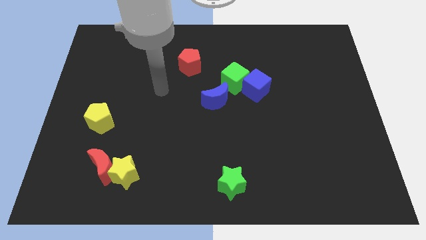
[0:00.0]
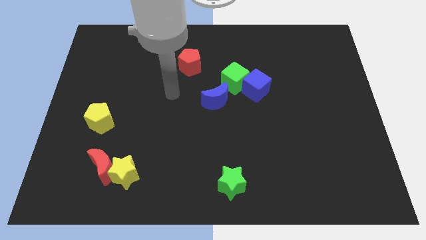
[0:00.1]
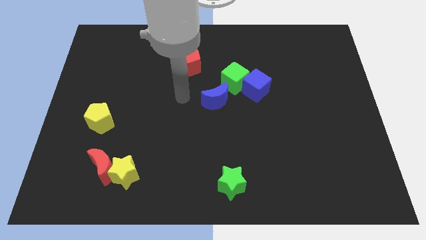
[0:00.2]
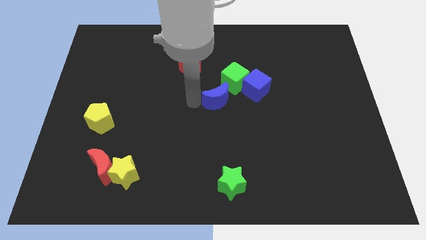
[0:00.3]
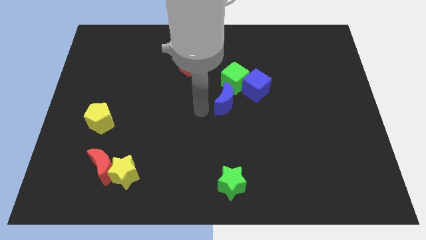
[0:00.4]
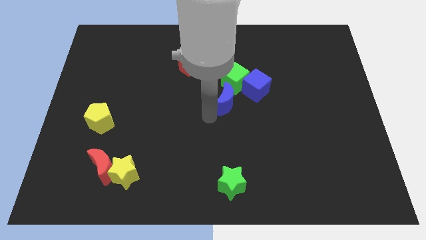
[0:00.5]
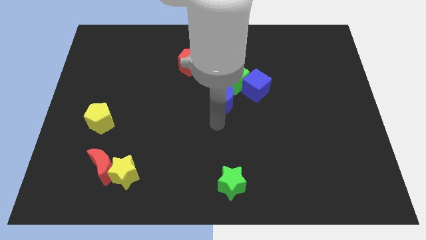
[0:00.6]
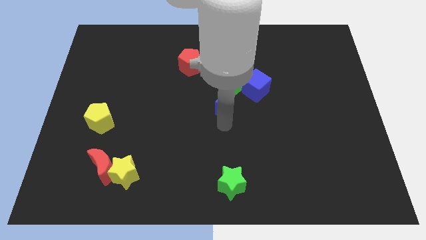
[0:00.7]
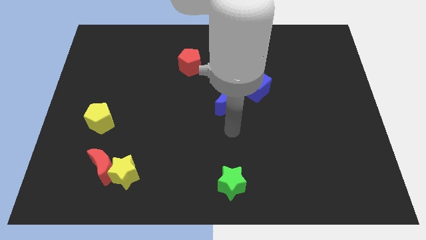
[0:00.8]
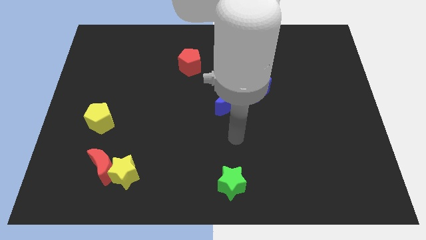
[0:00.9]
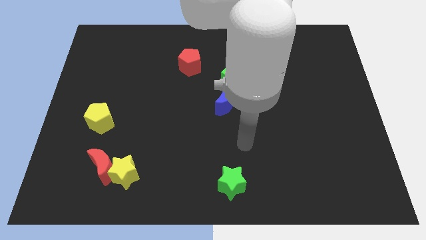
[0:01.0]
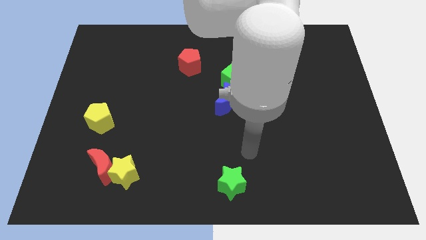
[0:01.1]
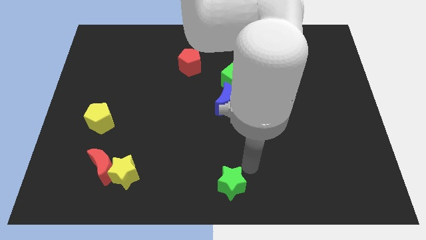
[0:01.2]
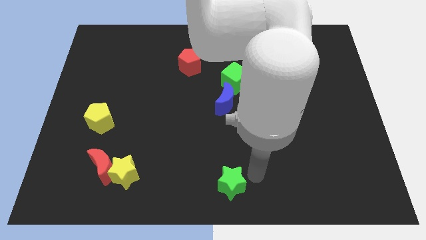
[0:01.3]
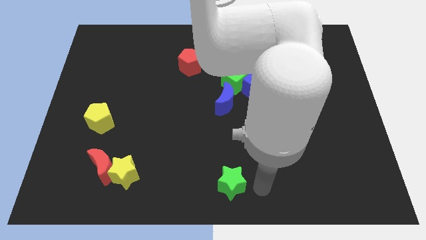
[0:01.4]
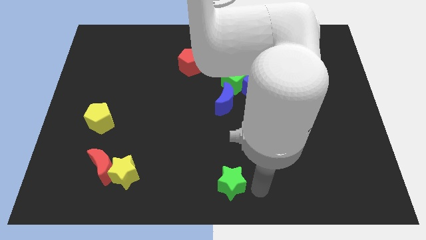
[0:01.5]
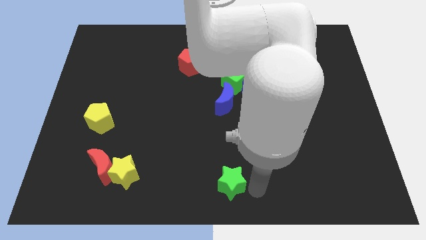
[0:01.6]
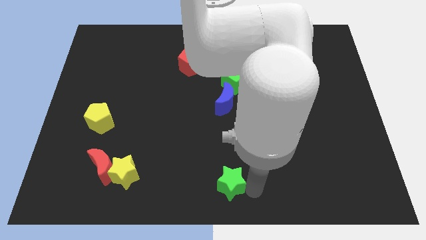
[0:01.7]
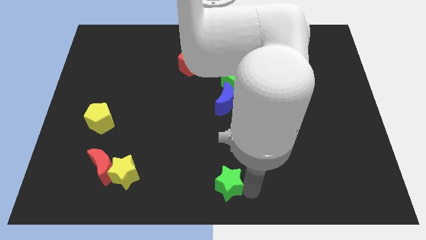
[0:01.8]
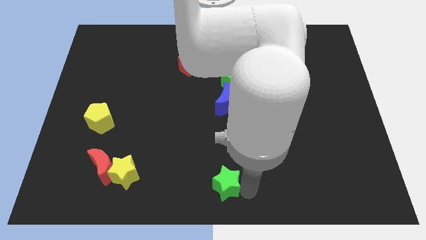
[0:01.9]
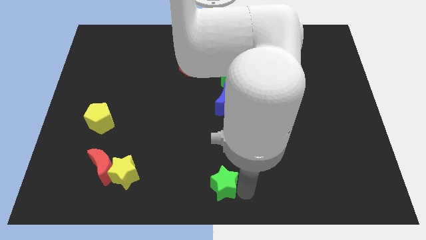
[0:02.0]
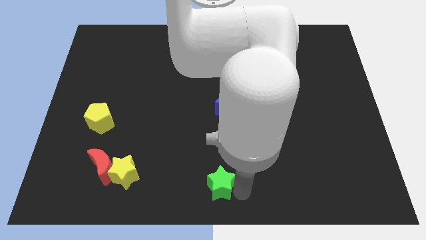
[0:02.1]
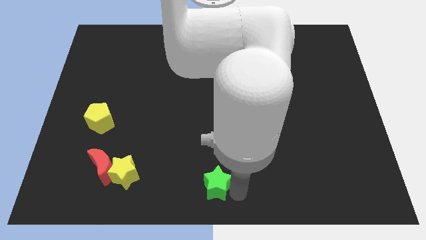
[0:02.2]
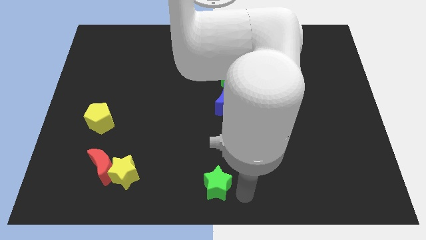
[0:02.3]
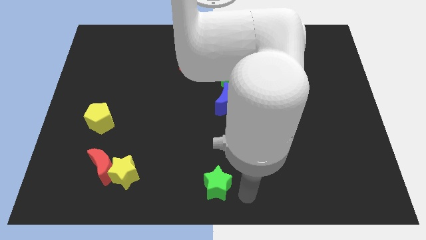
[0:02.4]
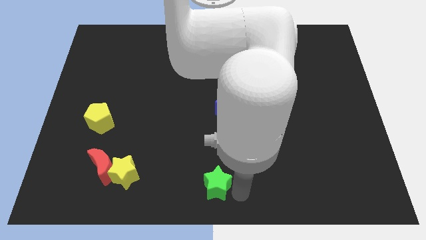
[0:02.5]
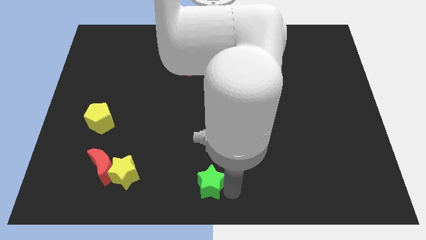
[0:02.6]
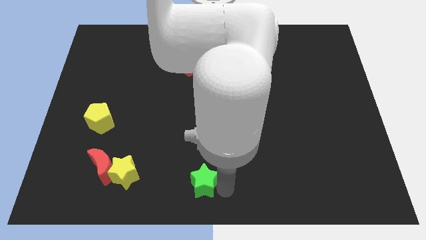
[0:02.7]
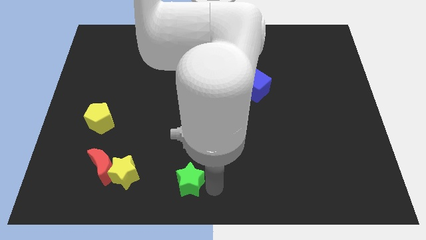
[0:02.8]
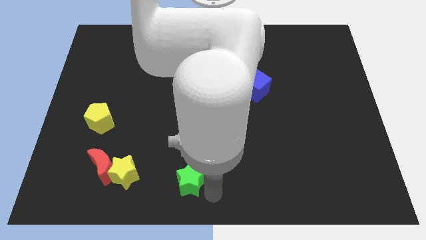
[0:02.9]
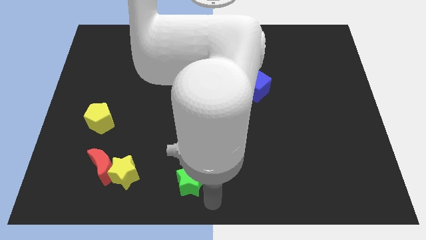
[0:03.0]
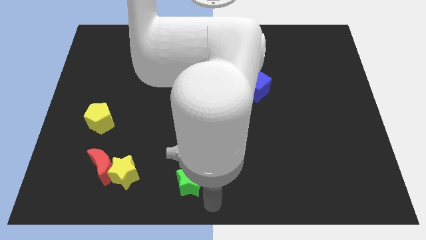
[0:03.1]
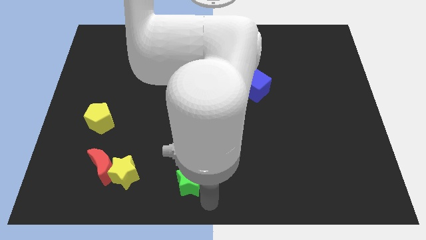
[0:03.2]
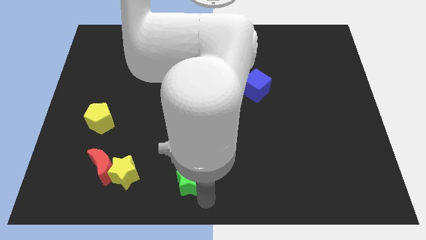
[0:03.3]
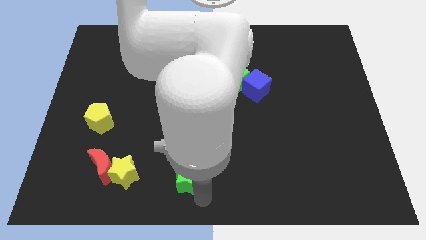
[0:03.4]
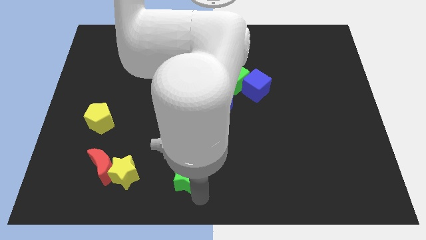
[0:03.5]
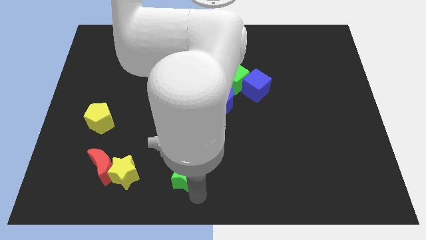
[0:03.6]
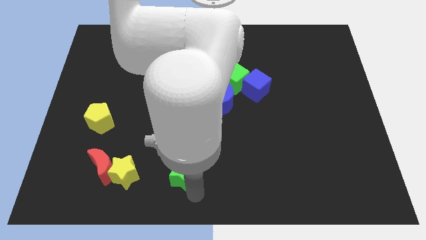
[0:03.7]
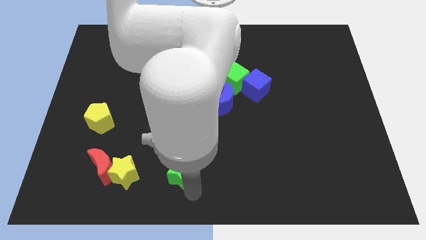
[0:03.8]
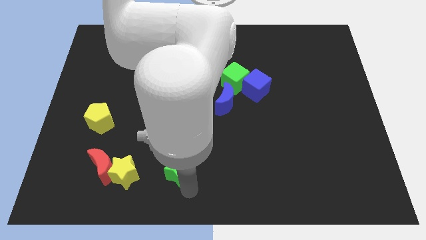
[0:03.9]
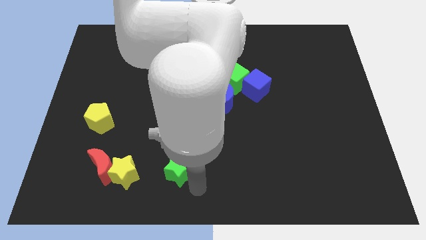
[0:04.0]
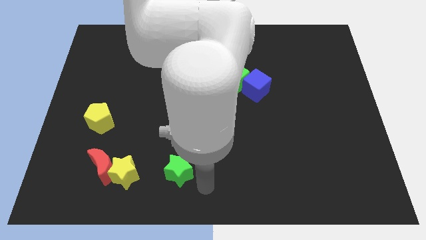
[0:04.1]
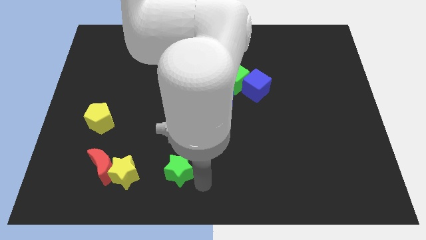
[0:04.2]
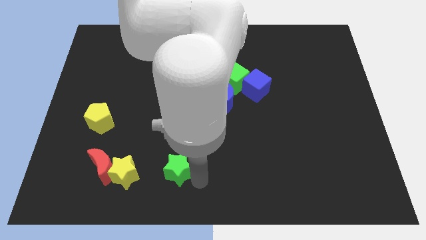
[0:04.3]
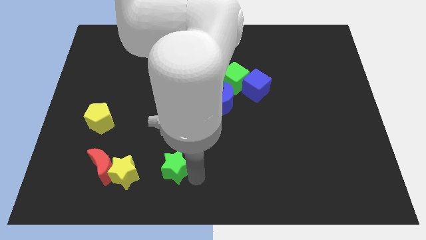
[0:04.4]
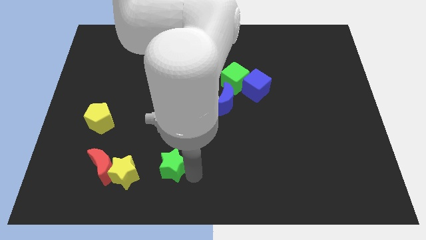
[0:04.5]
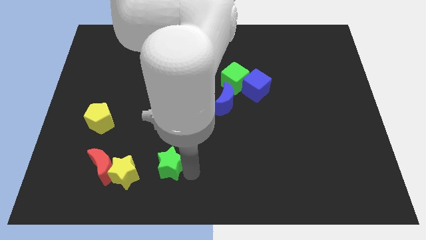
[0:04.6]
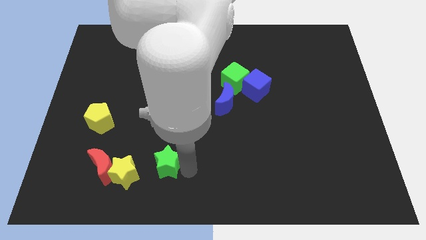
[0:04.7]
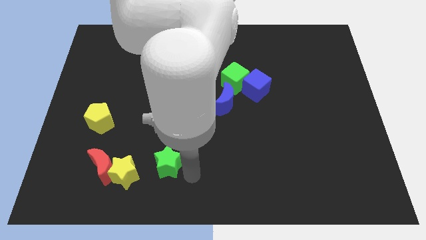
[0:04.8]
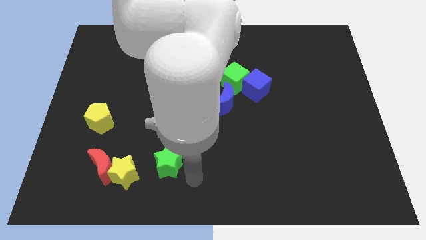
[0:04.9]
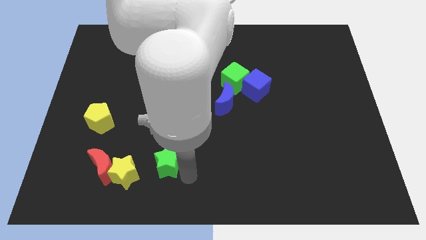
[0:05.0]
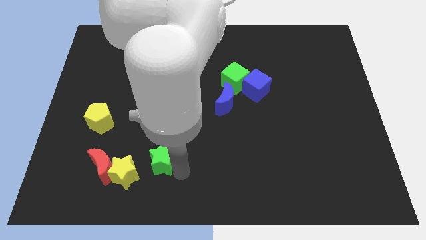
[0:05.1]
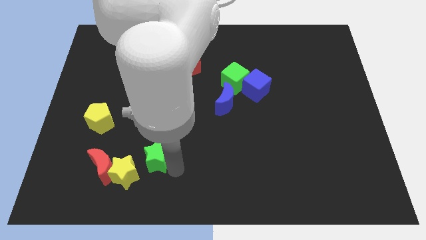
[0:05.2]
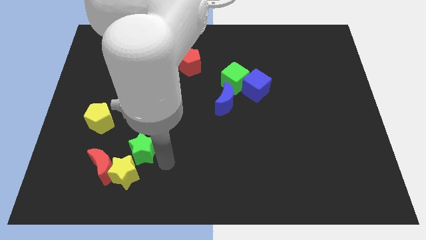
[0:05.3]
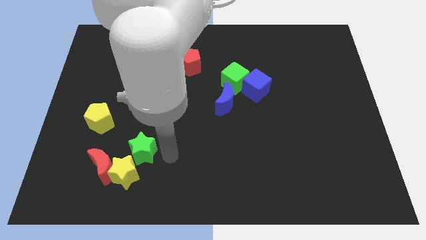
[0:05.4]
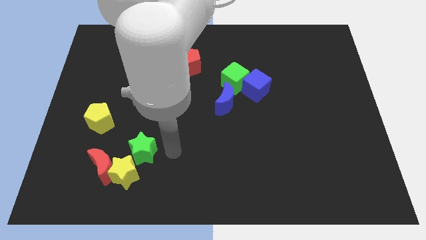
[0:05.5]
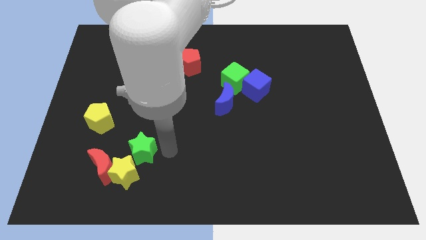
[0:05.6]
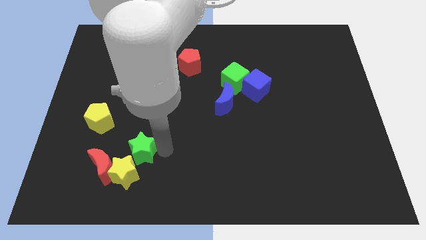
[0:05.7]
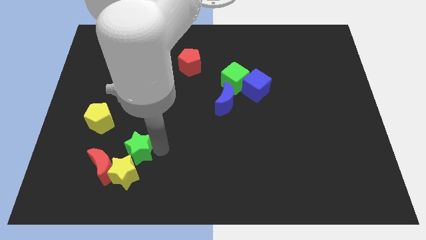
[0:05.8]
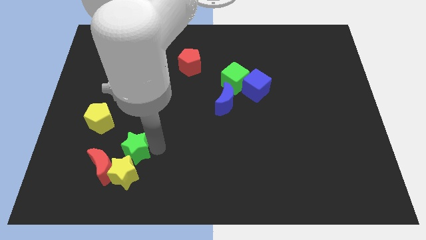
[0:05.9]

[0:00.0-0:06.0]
move the green star to the top left of the yellow star

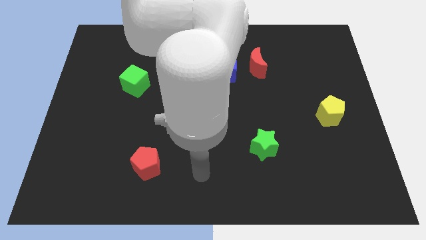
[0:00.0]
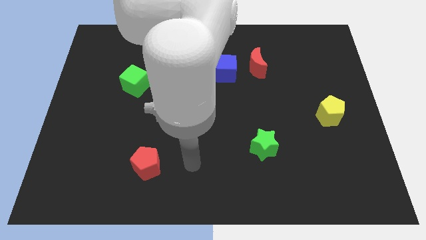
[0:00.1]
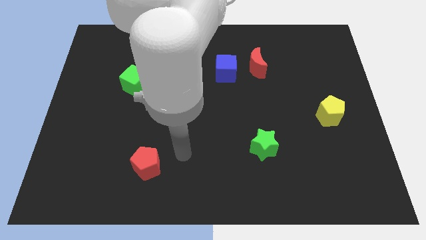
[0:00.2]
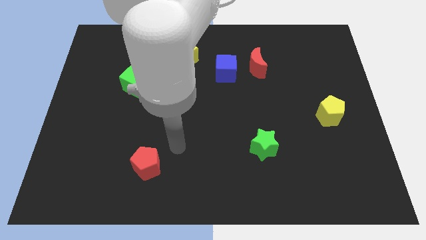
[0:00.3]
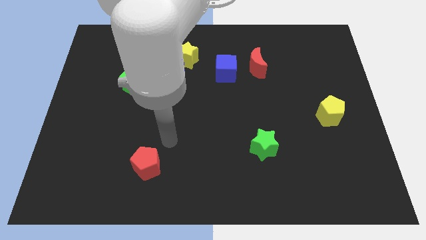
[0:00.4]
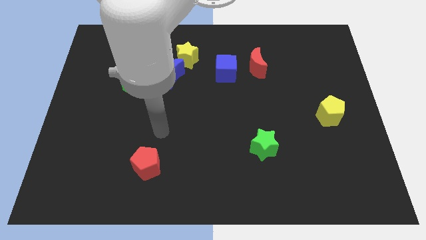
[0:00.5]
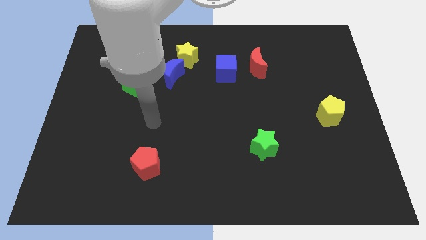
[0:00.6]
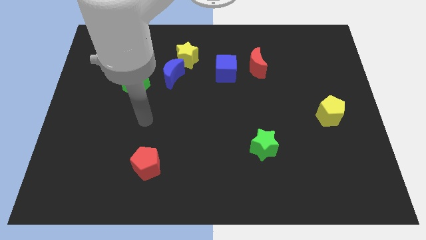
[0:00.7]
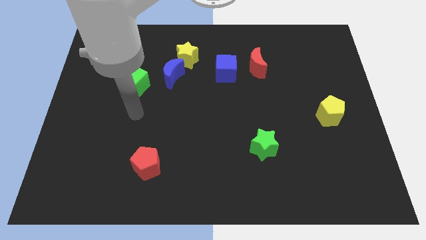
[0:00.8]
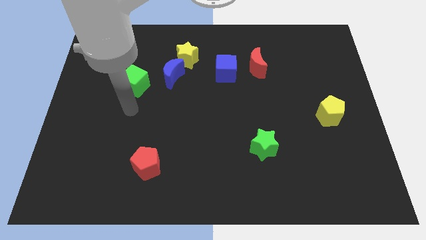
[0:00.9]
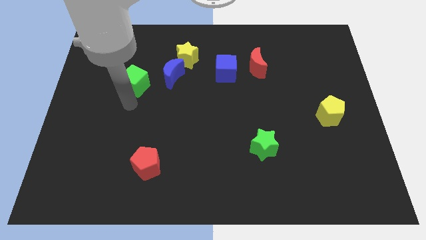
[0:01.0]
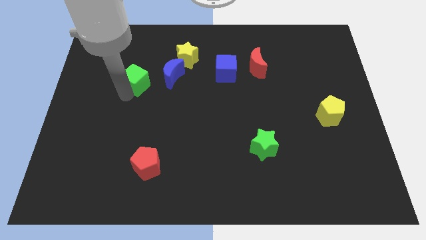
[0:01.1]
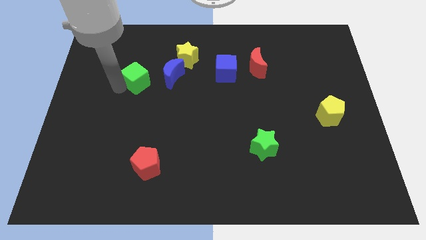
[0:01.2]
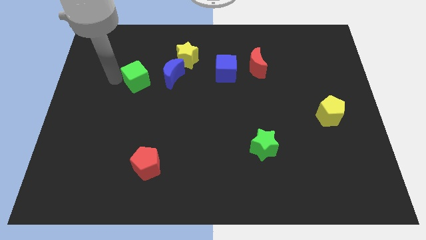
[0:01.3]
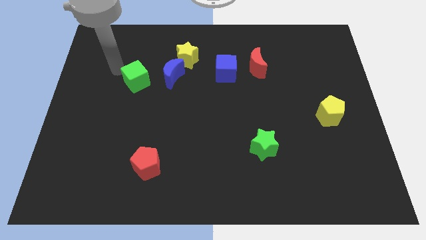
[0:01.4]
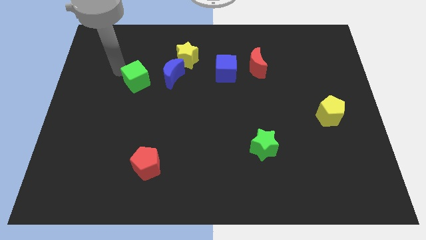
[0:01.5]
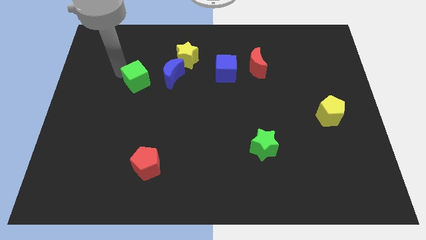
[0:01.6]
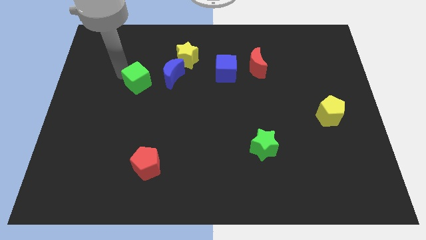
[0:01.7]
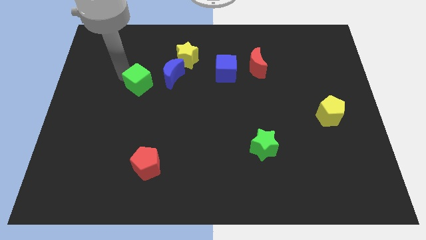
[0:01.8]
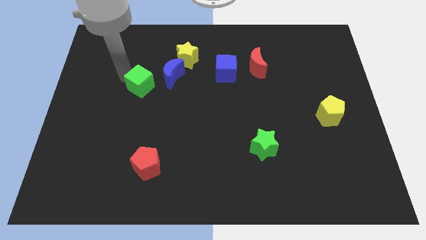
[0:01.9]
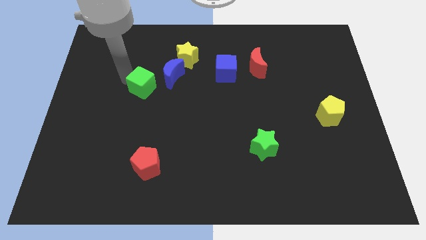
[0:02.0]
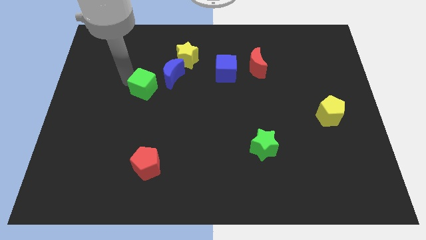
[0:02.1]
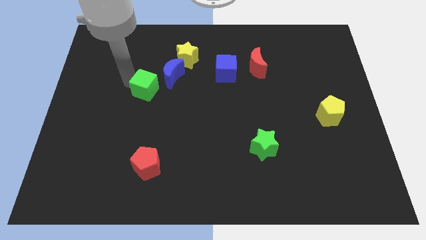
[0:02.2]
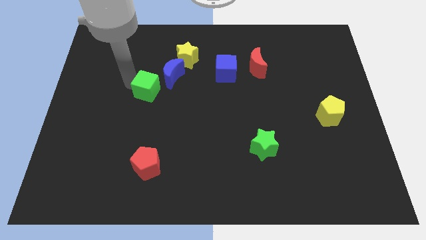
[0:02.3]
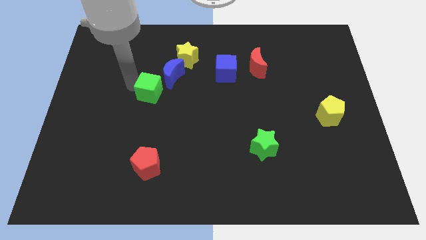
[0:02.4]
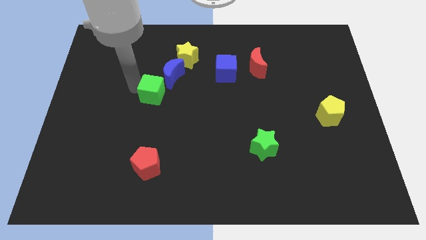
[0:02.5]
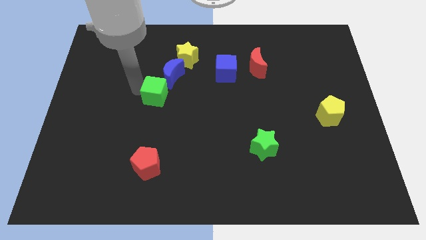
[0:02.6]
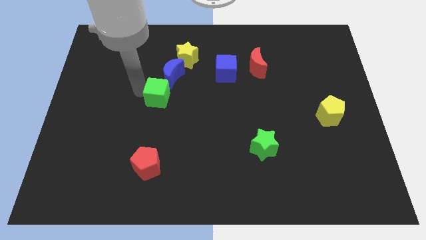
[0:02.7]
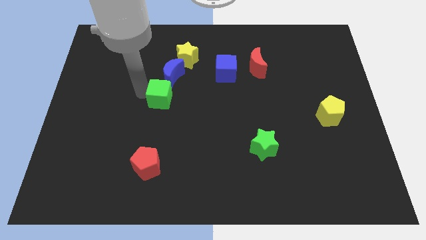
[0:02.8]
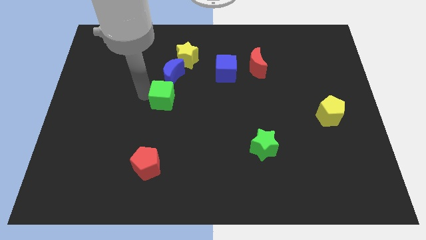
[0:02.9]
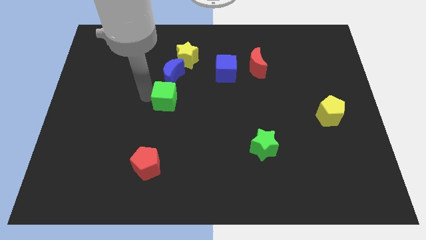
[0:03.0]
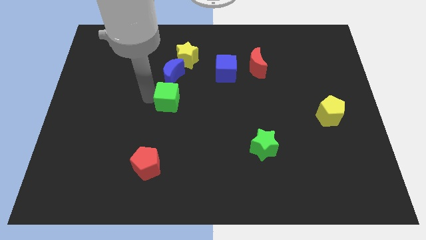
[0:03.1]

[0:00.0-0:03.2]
push the green cube below the yellow star
